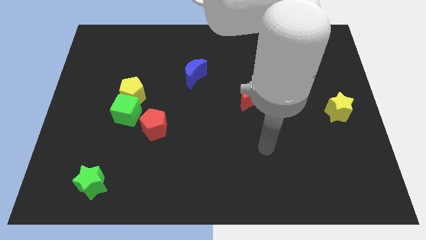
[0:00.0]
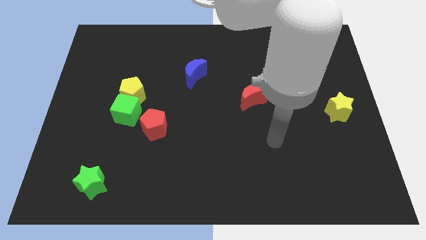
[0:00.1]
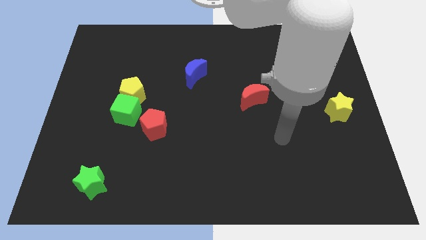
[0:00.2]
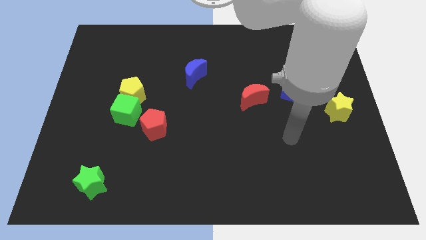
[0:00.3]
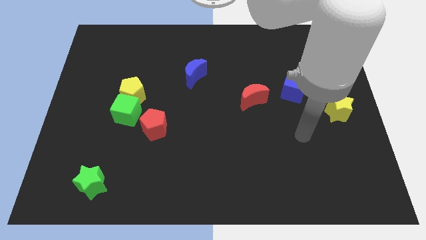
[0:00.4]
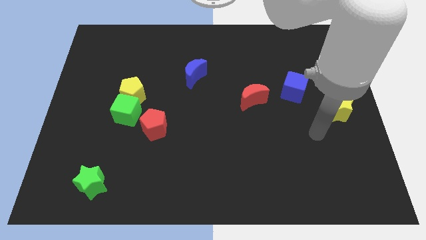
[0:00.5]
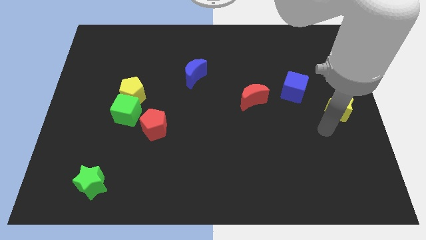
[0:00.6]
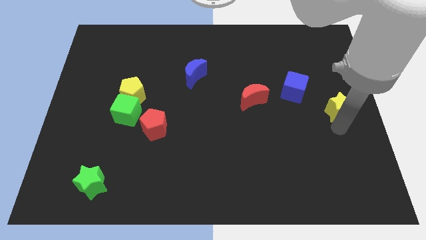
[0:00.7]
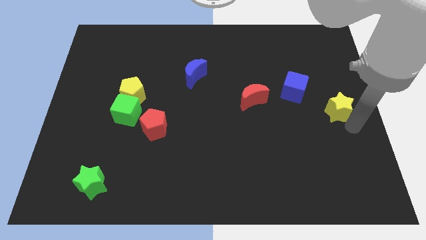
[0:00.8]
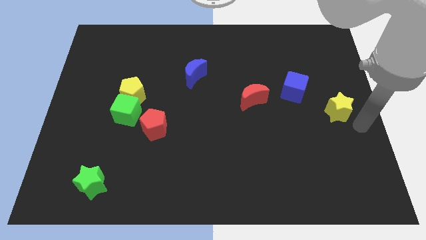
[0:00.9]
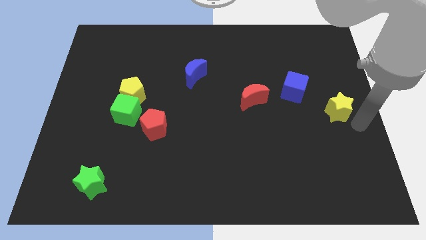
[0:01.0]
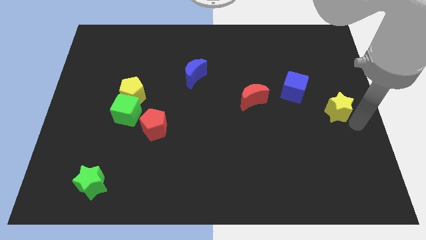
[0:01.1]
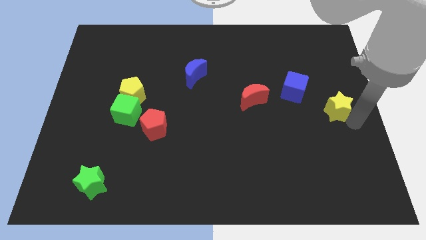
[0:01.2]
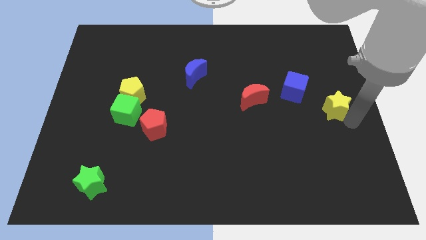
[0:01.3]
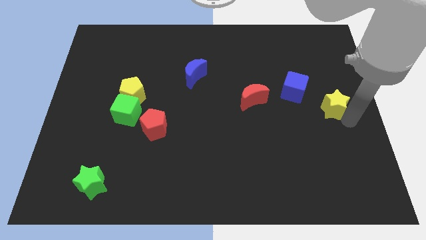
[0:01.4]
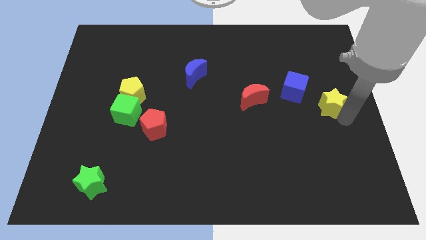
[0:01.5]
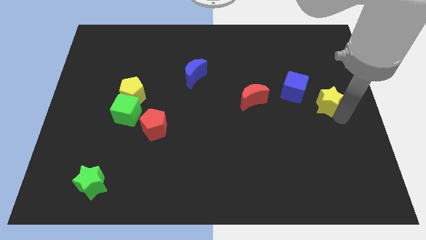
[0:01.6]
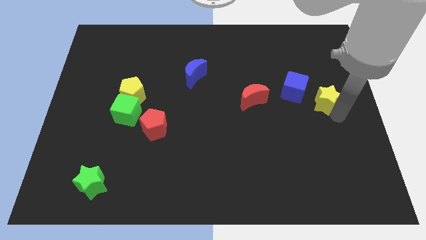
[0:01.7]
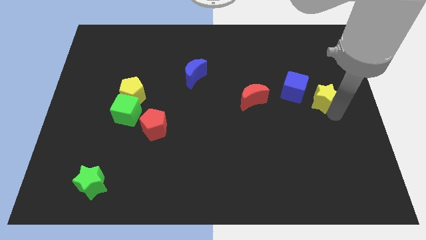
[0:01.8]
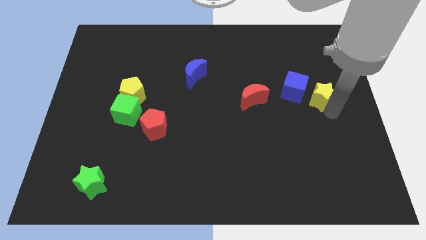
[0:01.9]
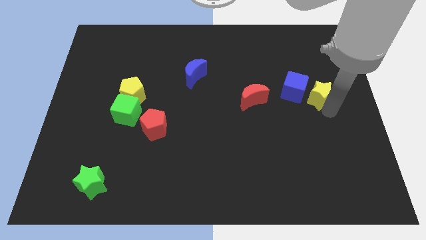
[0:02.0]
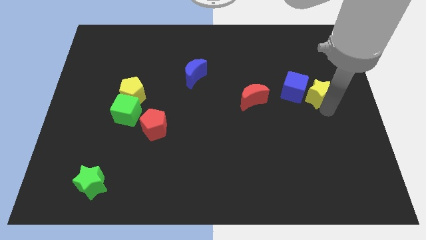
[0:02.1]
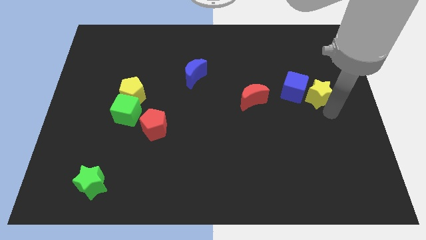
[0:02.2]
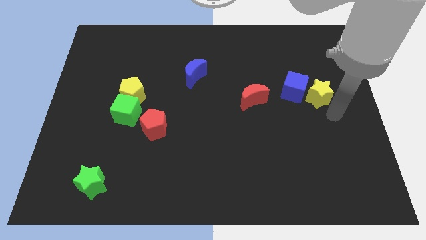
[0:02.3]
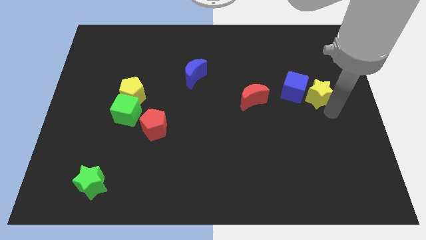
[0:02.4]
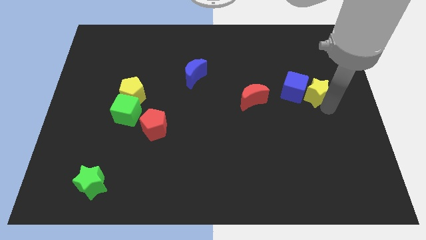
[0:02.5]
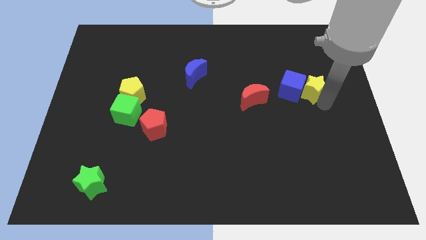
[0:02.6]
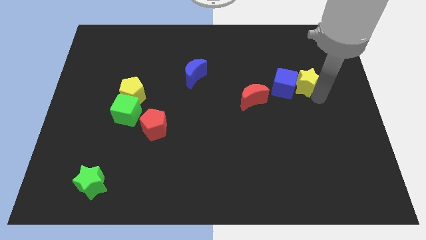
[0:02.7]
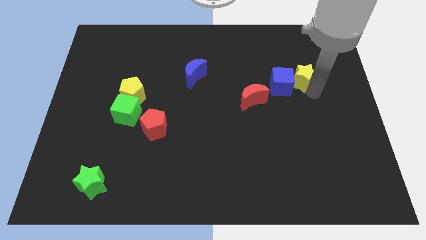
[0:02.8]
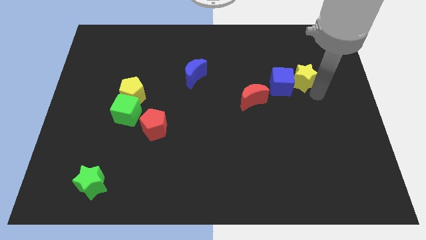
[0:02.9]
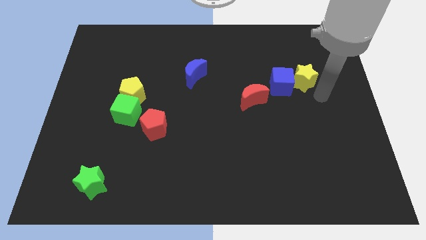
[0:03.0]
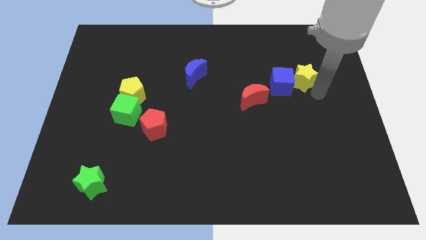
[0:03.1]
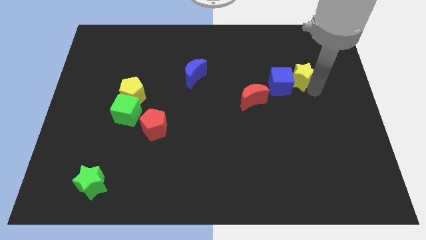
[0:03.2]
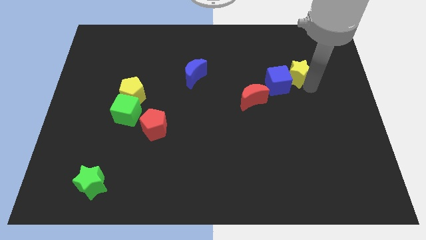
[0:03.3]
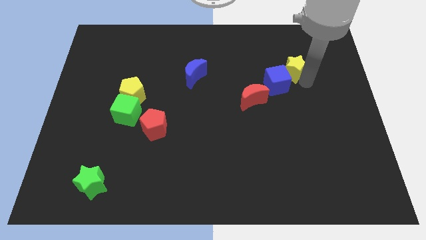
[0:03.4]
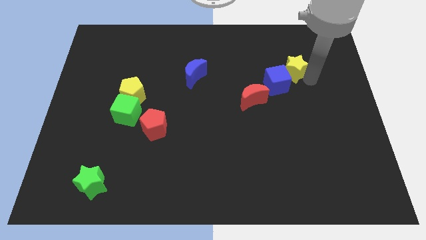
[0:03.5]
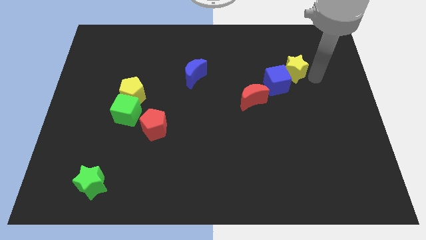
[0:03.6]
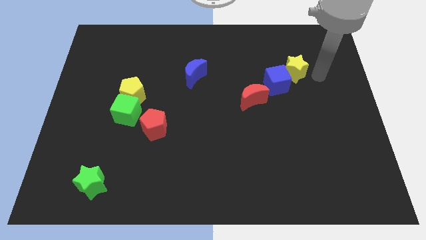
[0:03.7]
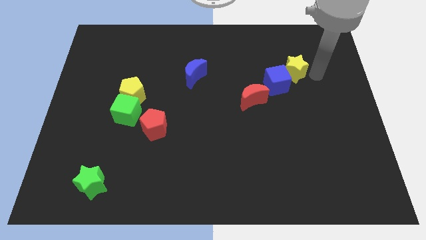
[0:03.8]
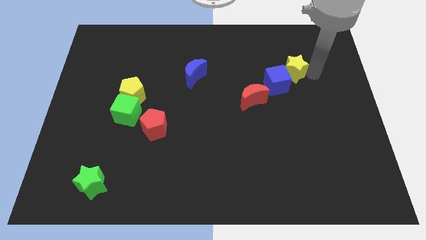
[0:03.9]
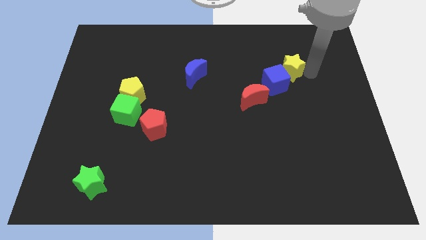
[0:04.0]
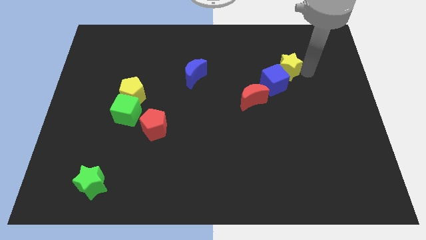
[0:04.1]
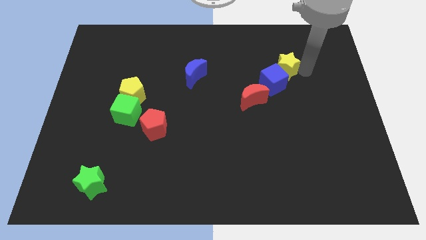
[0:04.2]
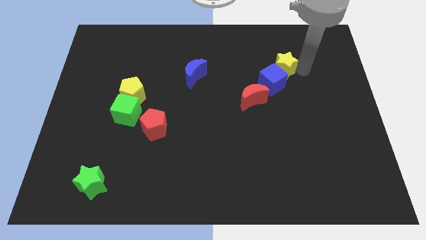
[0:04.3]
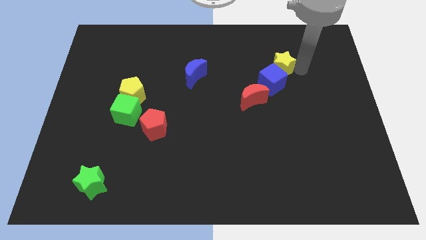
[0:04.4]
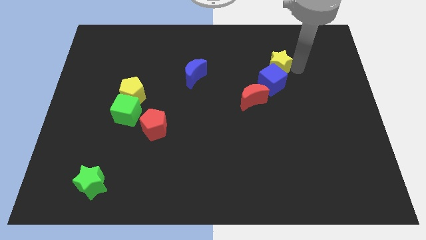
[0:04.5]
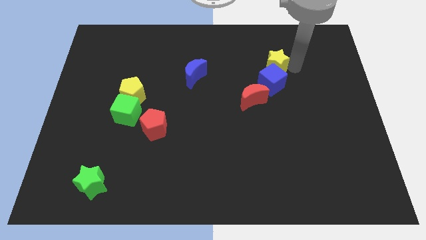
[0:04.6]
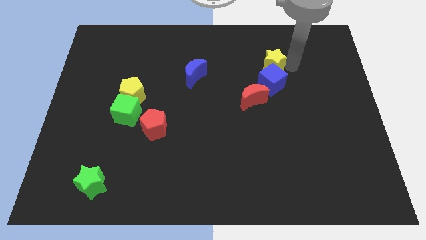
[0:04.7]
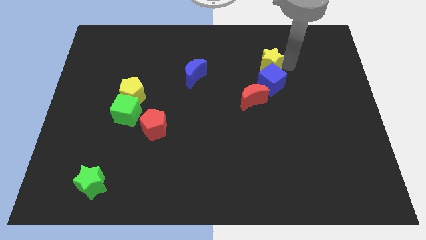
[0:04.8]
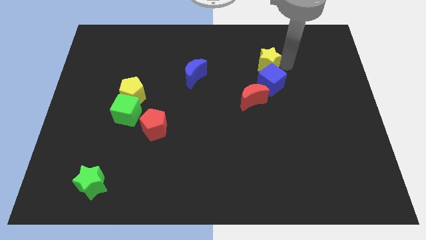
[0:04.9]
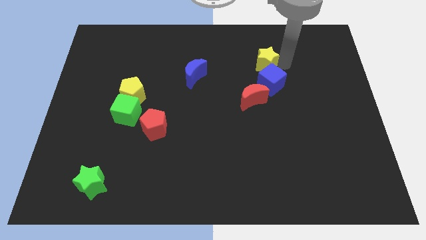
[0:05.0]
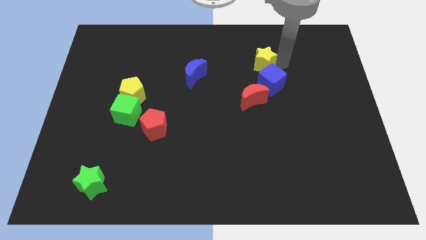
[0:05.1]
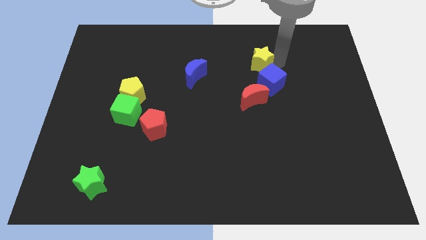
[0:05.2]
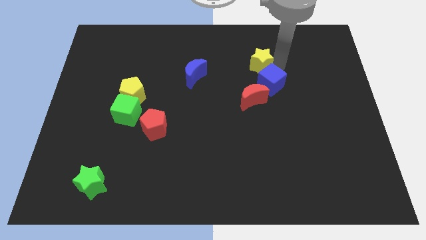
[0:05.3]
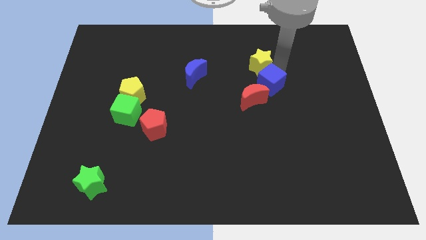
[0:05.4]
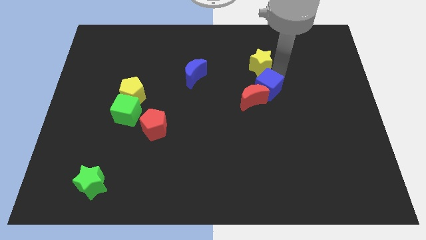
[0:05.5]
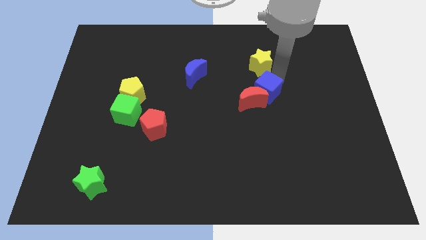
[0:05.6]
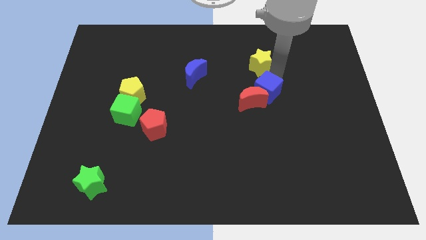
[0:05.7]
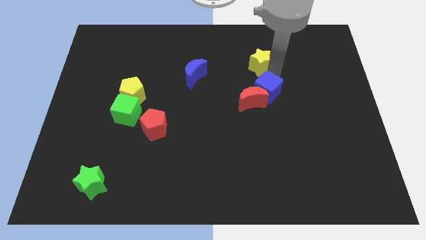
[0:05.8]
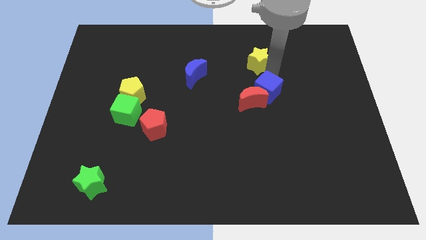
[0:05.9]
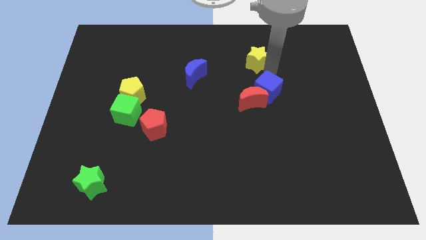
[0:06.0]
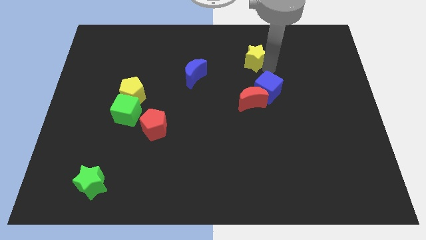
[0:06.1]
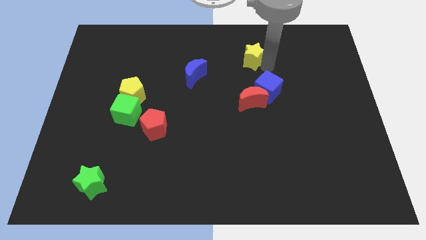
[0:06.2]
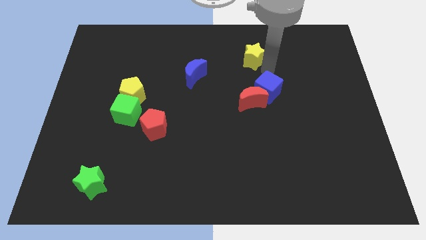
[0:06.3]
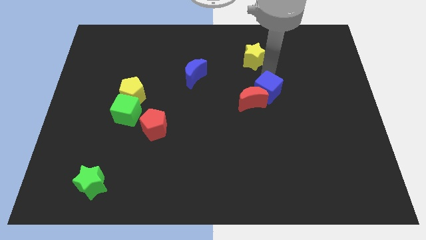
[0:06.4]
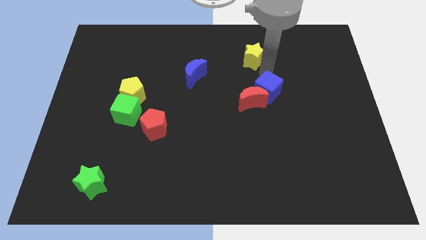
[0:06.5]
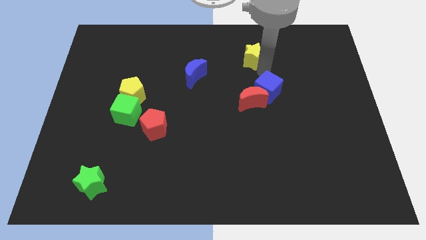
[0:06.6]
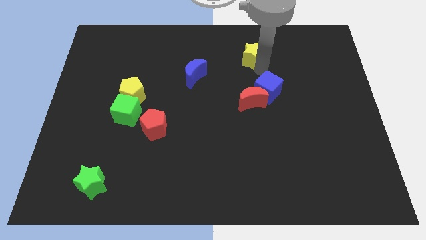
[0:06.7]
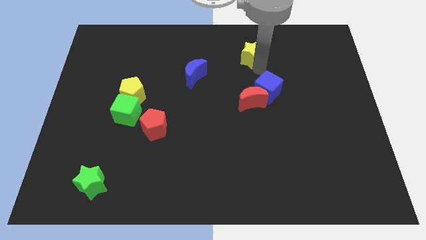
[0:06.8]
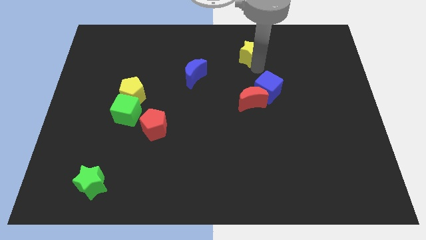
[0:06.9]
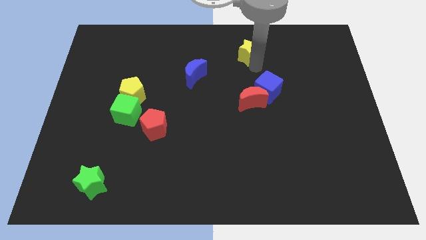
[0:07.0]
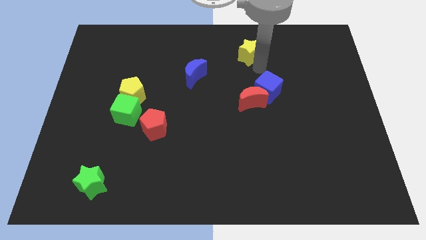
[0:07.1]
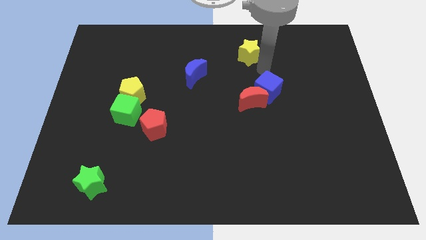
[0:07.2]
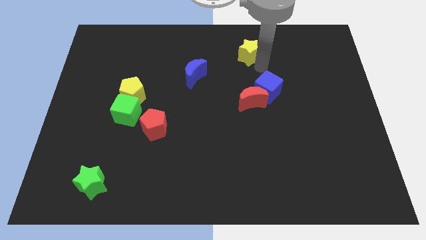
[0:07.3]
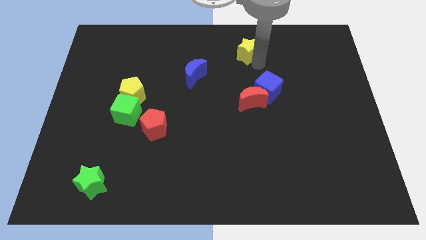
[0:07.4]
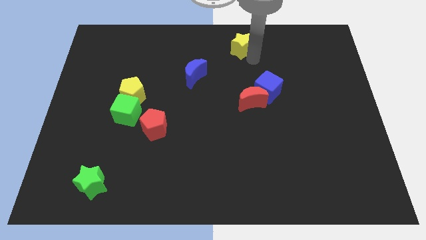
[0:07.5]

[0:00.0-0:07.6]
move the yellow star to the top side
